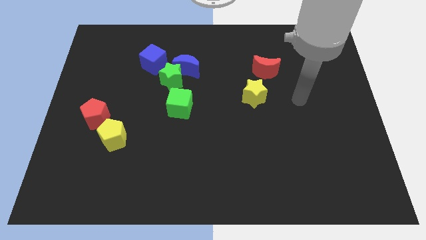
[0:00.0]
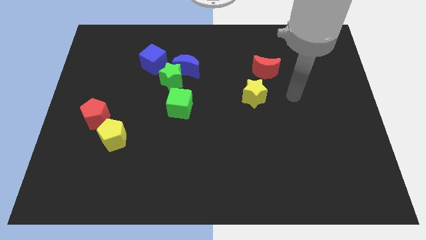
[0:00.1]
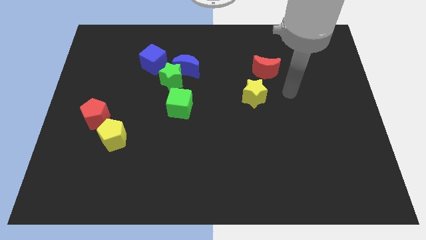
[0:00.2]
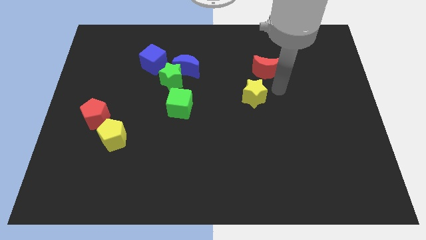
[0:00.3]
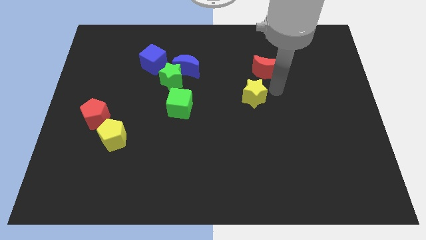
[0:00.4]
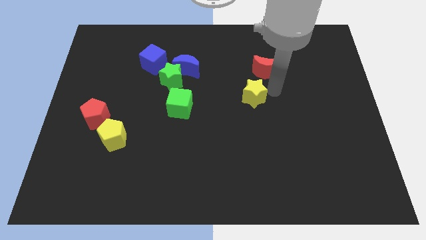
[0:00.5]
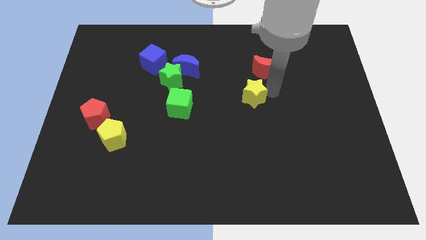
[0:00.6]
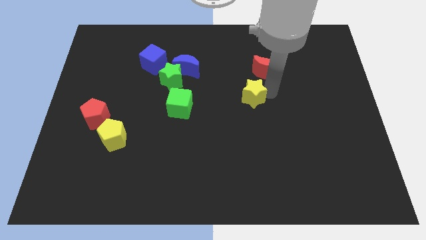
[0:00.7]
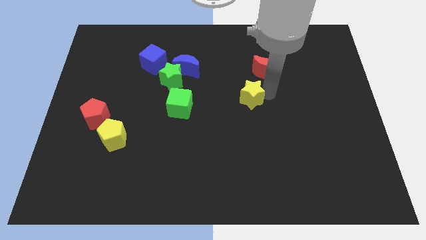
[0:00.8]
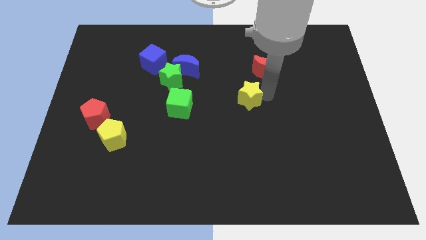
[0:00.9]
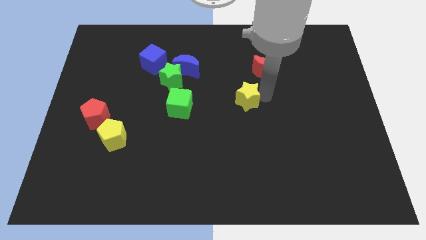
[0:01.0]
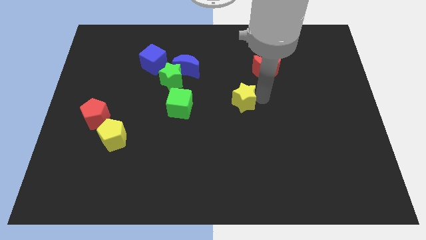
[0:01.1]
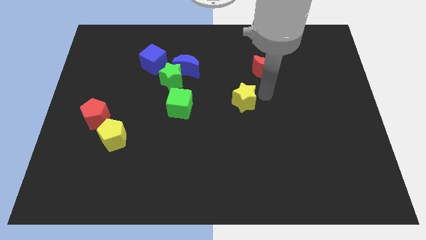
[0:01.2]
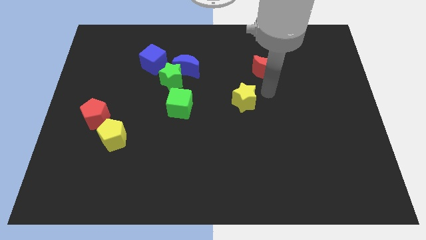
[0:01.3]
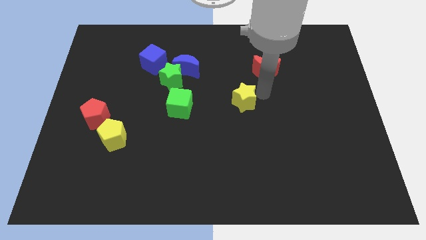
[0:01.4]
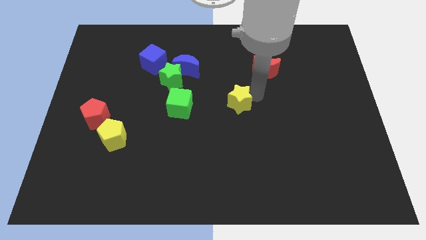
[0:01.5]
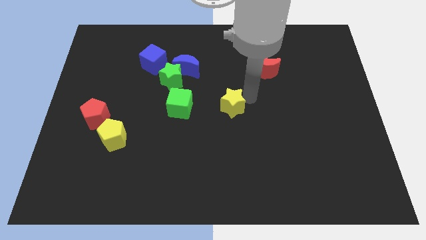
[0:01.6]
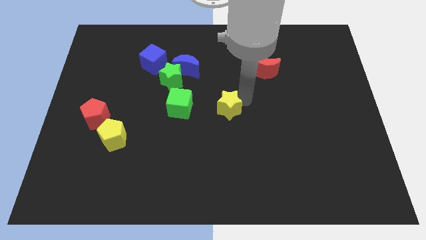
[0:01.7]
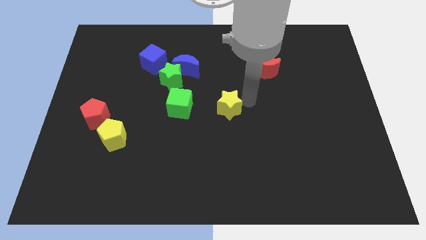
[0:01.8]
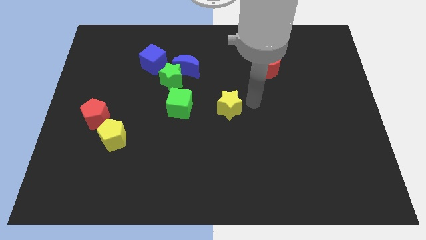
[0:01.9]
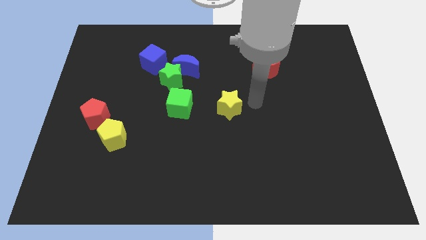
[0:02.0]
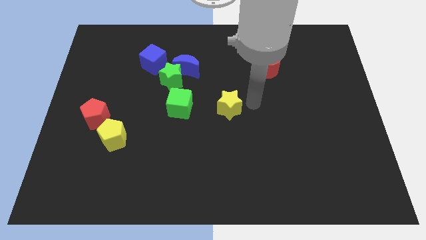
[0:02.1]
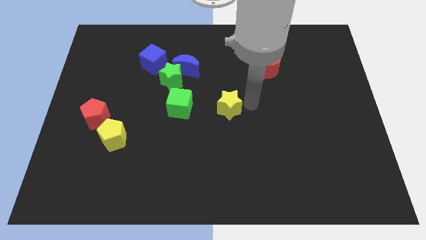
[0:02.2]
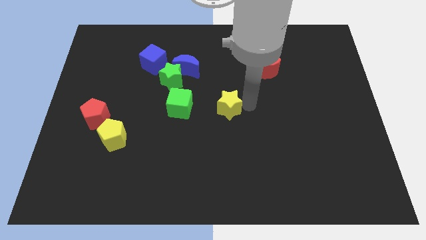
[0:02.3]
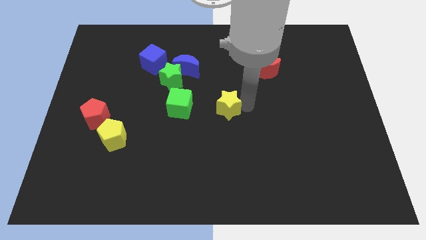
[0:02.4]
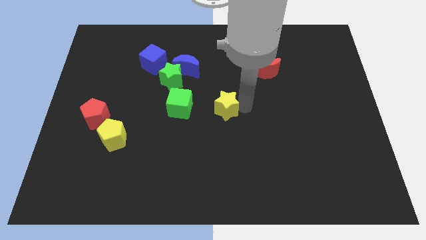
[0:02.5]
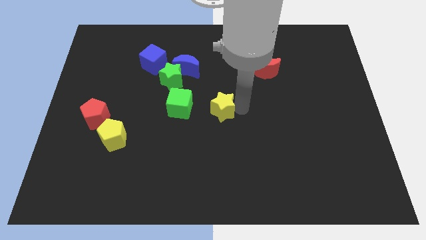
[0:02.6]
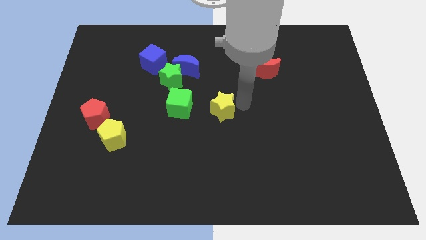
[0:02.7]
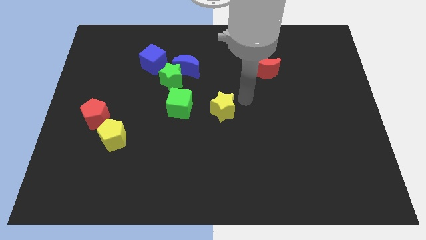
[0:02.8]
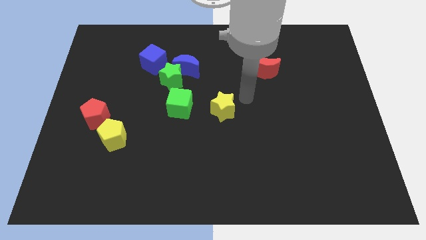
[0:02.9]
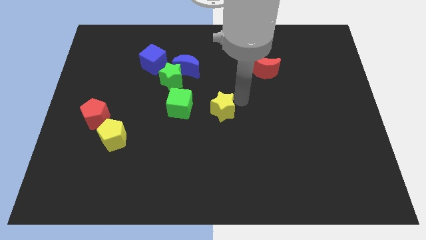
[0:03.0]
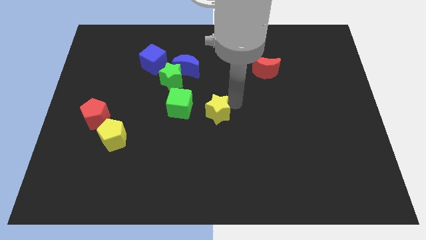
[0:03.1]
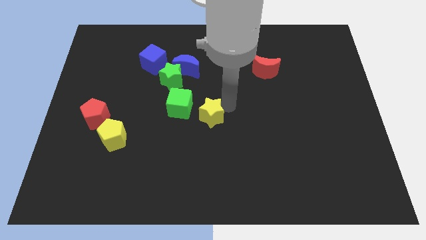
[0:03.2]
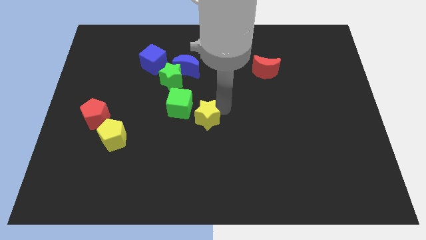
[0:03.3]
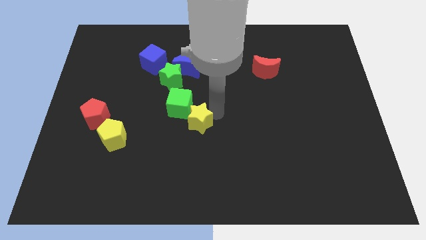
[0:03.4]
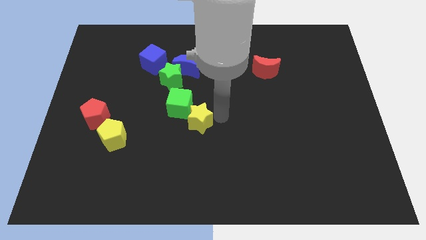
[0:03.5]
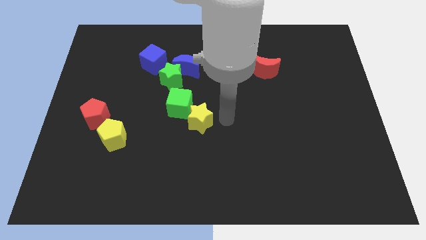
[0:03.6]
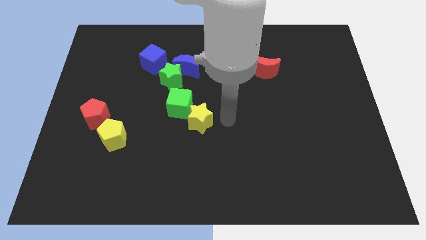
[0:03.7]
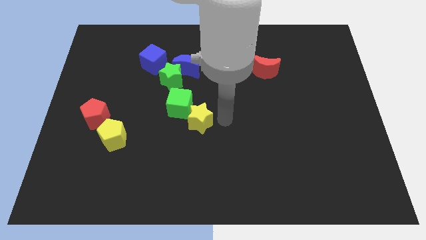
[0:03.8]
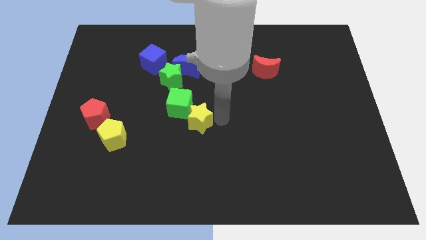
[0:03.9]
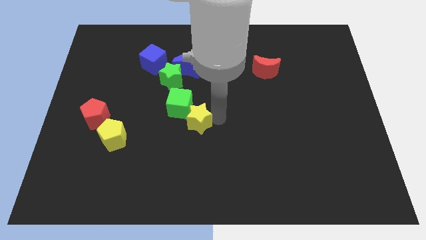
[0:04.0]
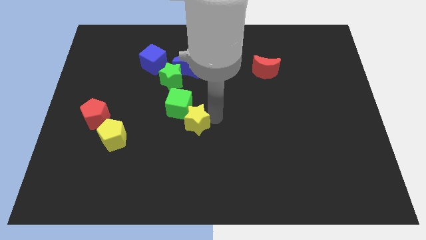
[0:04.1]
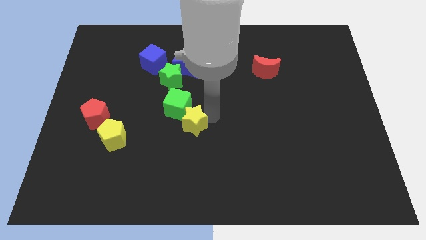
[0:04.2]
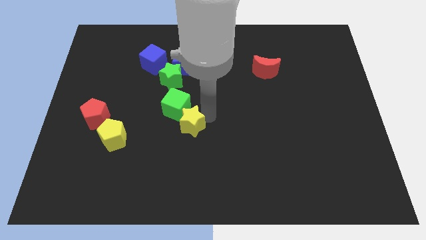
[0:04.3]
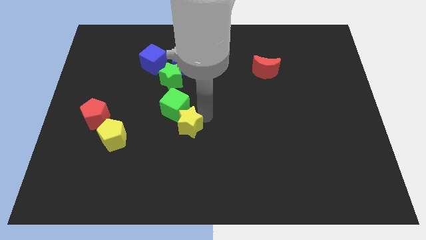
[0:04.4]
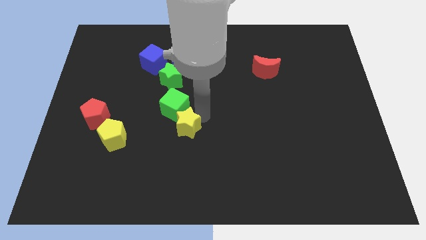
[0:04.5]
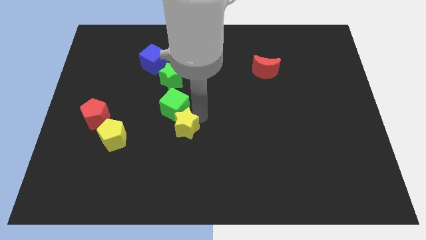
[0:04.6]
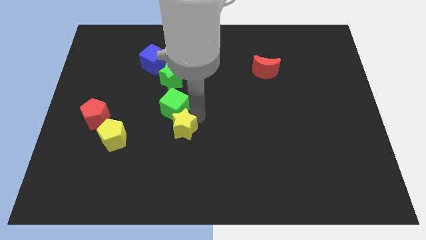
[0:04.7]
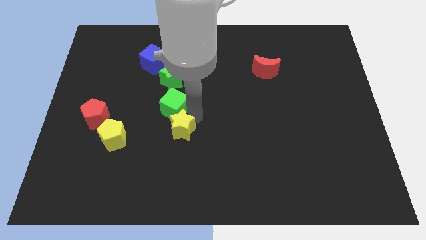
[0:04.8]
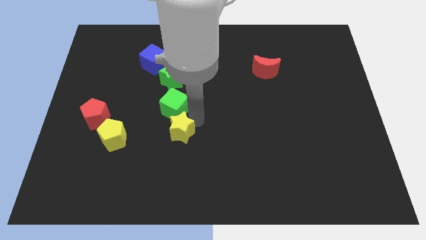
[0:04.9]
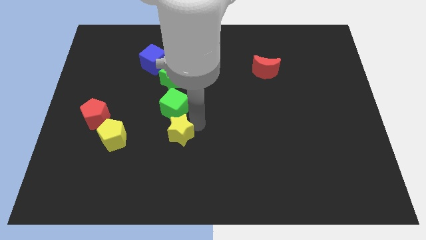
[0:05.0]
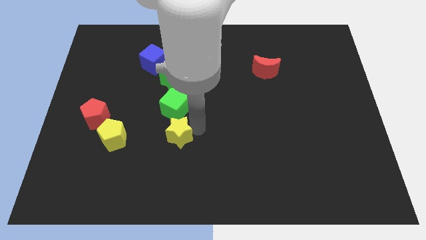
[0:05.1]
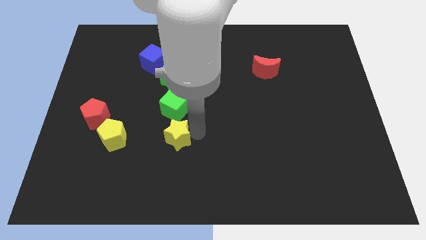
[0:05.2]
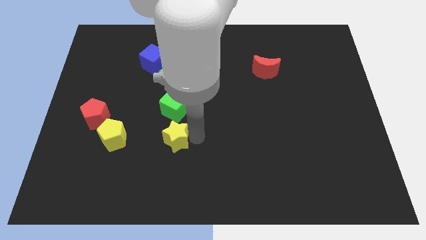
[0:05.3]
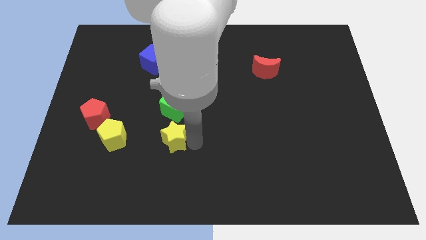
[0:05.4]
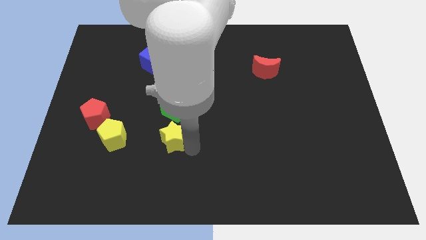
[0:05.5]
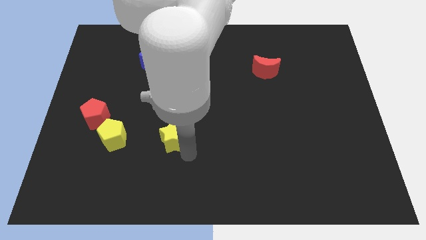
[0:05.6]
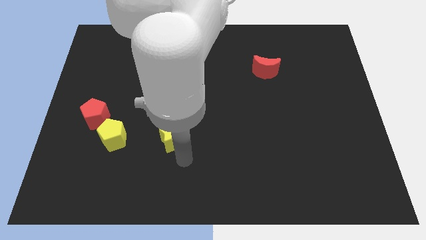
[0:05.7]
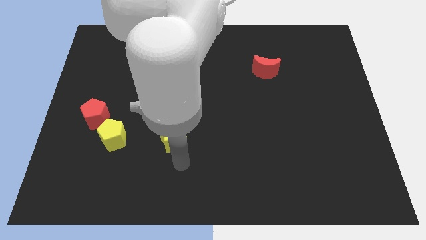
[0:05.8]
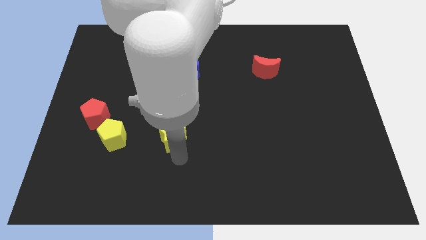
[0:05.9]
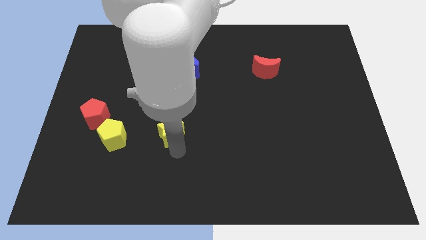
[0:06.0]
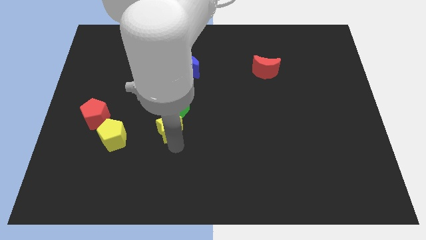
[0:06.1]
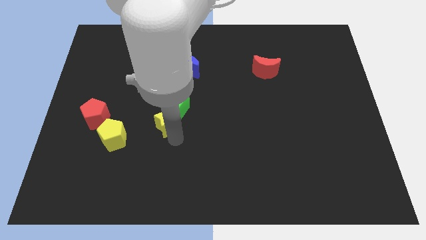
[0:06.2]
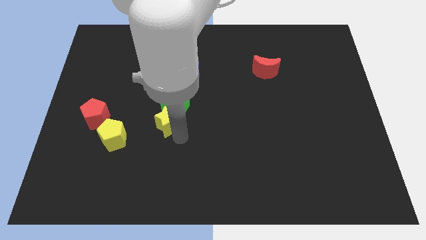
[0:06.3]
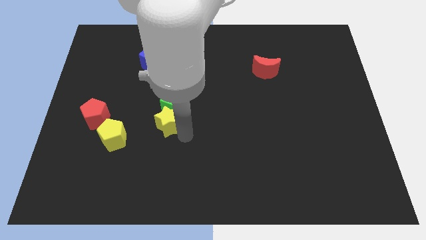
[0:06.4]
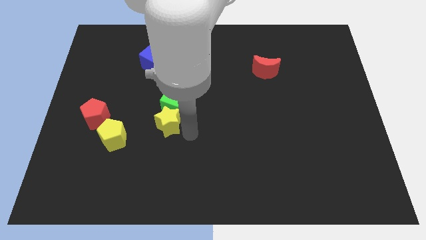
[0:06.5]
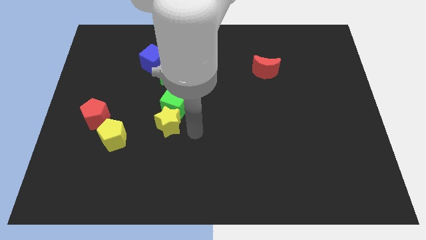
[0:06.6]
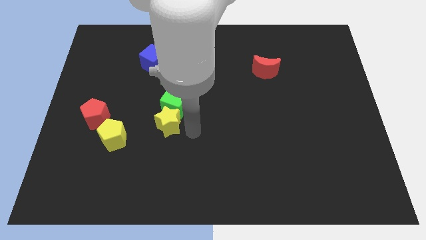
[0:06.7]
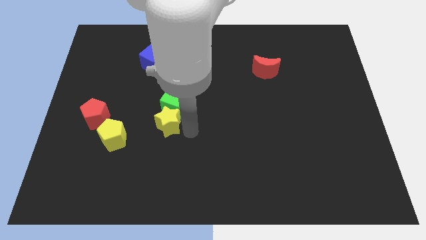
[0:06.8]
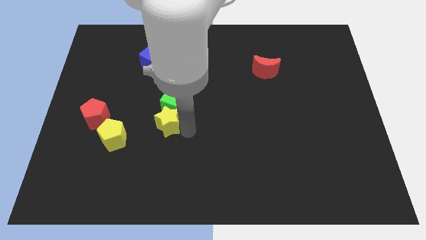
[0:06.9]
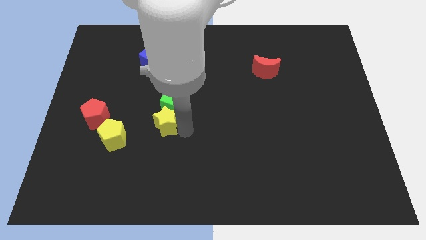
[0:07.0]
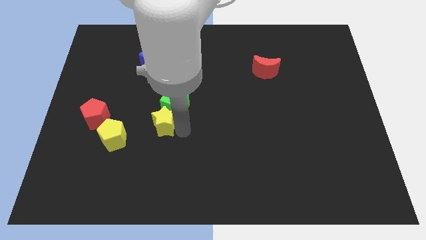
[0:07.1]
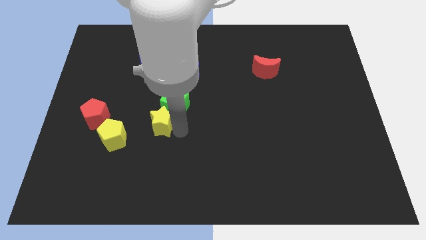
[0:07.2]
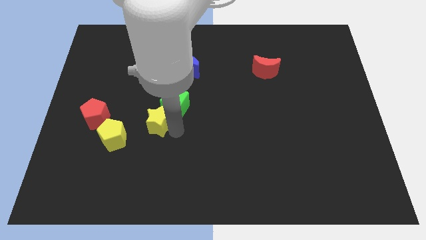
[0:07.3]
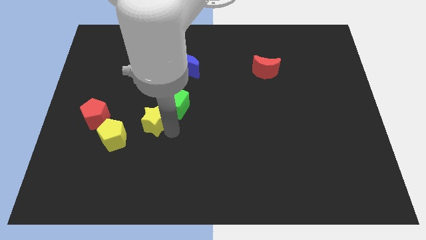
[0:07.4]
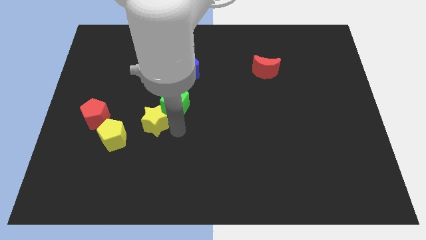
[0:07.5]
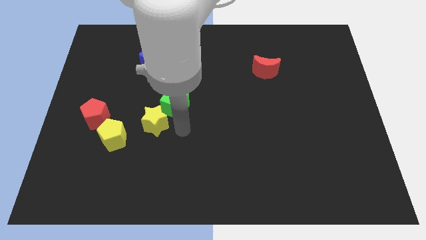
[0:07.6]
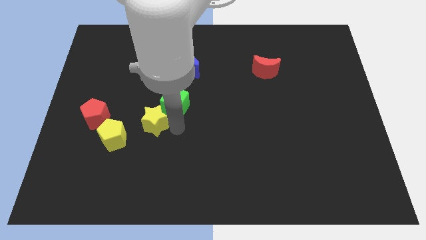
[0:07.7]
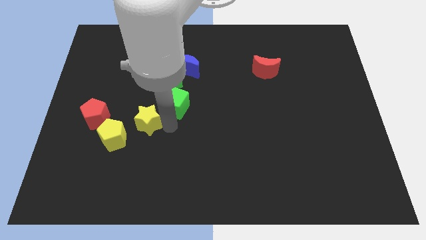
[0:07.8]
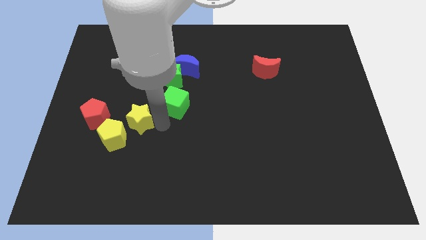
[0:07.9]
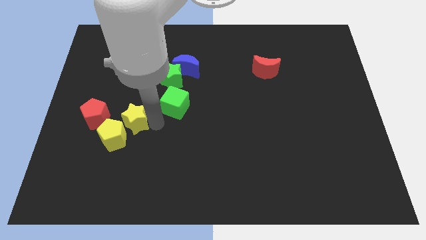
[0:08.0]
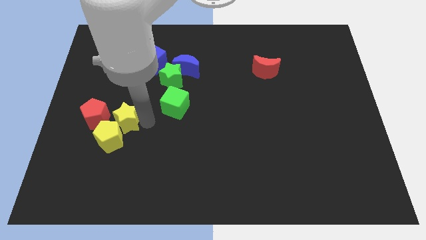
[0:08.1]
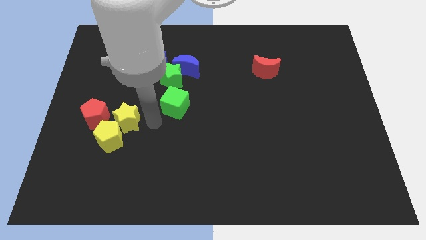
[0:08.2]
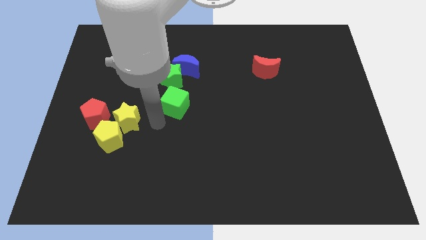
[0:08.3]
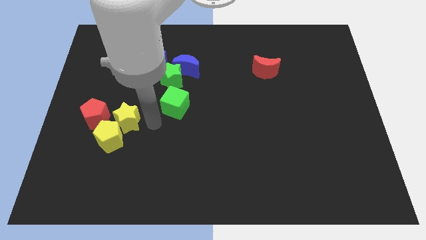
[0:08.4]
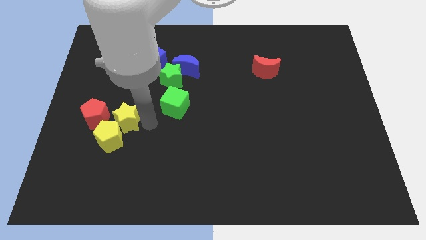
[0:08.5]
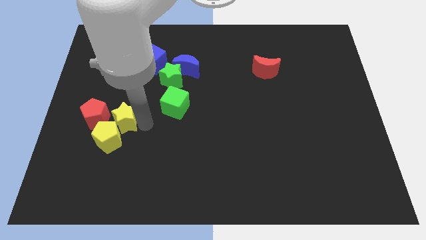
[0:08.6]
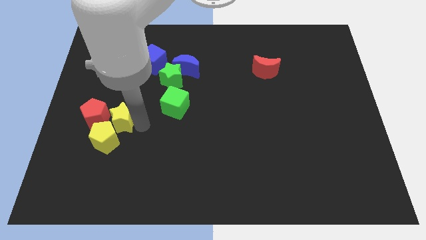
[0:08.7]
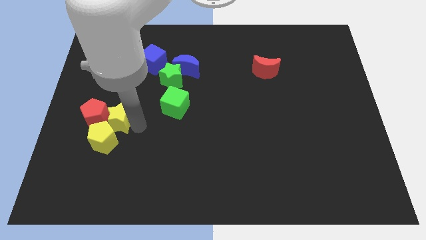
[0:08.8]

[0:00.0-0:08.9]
move the yellow star towards the red pentagon
